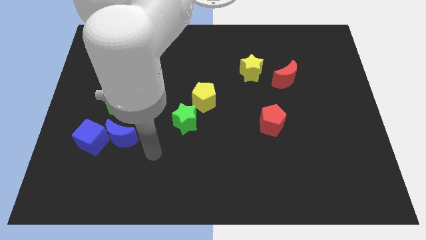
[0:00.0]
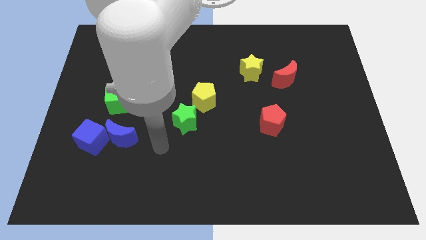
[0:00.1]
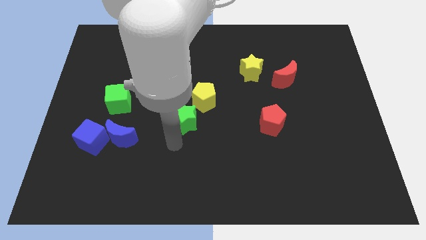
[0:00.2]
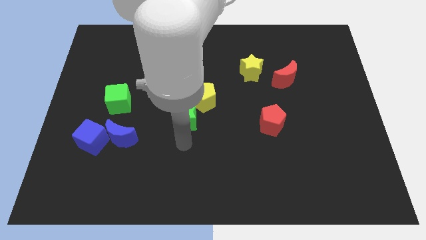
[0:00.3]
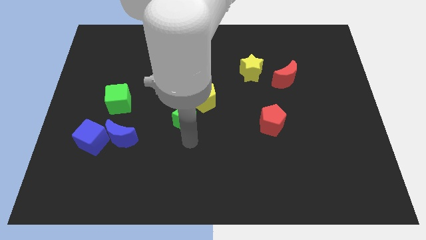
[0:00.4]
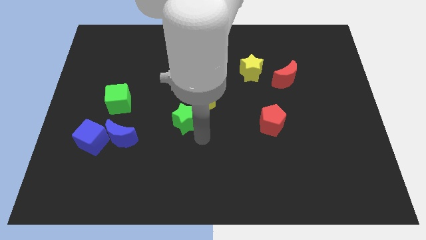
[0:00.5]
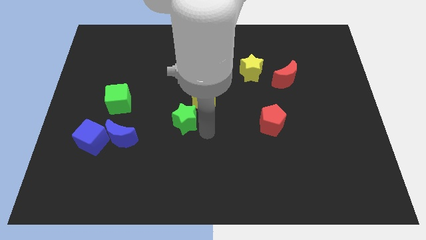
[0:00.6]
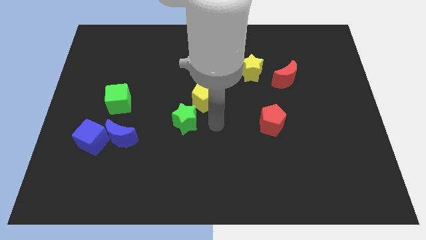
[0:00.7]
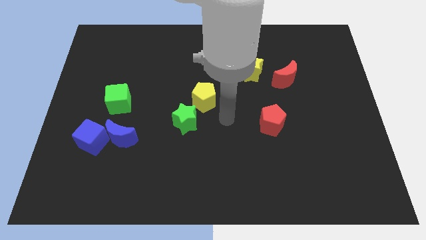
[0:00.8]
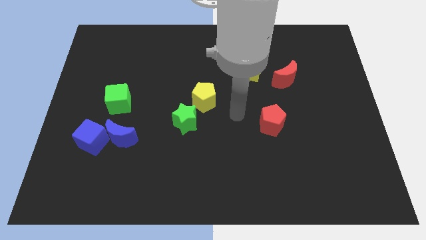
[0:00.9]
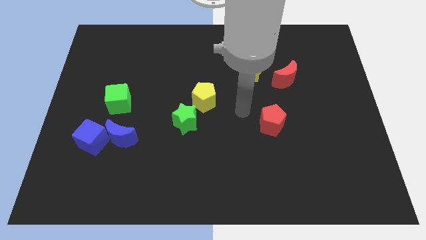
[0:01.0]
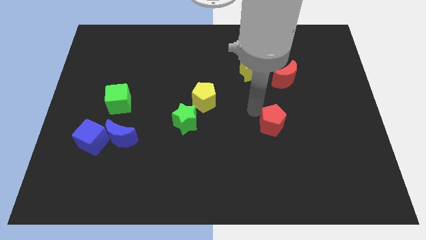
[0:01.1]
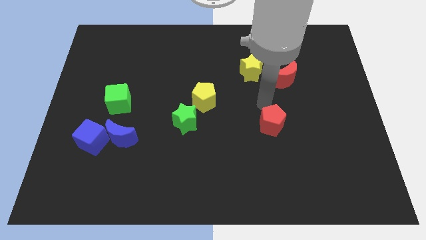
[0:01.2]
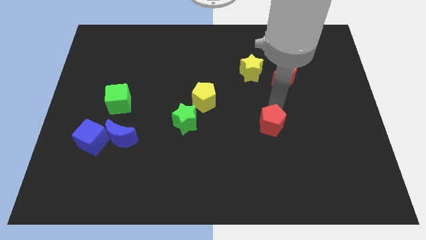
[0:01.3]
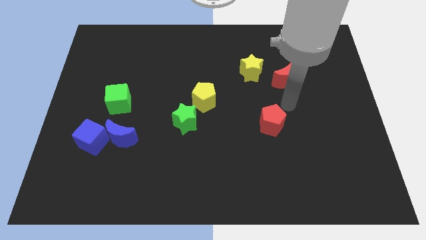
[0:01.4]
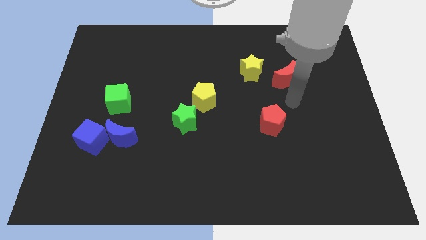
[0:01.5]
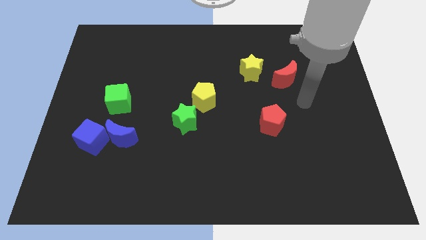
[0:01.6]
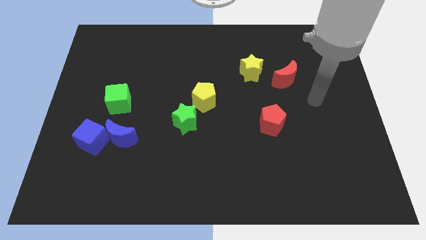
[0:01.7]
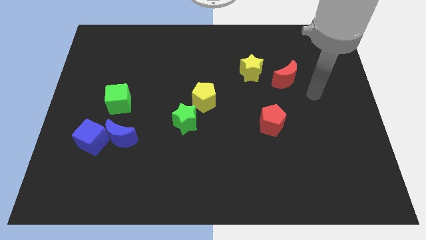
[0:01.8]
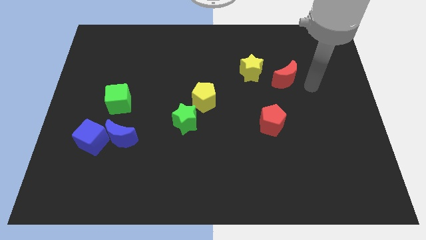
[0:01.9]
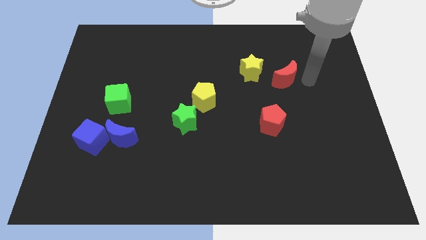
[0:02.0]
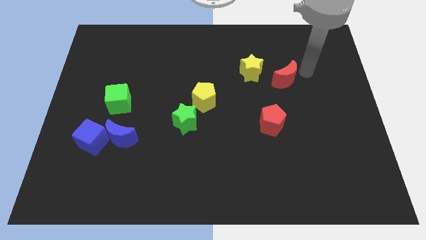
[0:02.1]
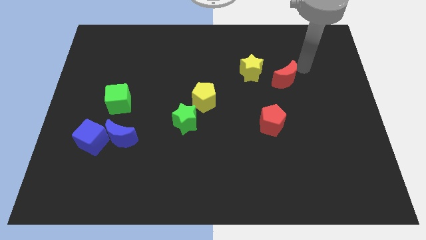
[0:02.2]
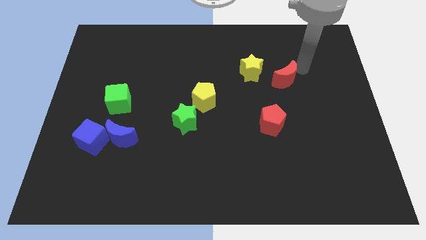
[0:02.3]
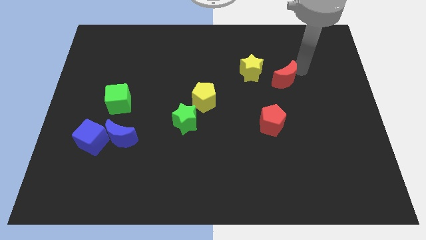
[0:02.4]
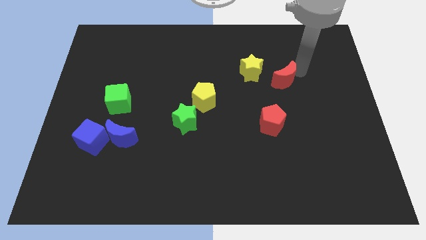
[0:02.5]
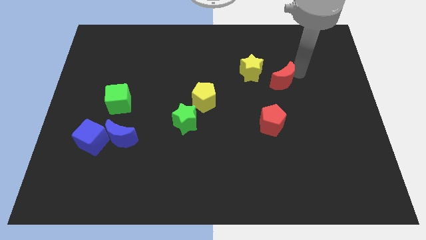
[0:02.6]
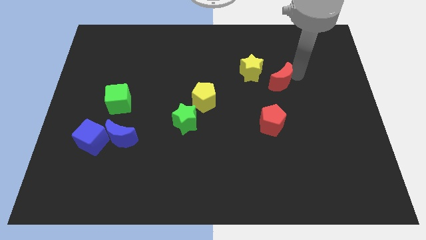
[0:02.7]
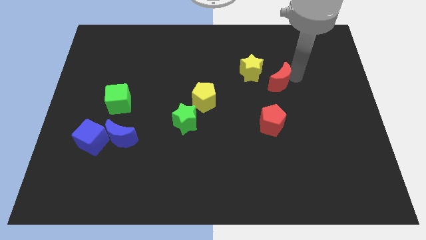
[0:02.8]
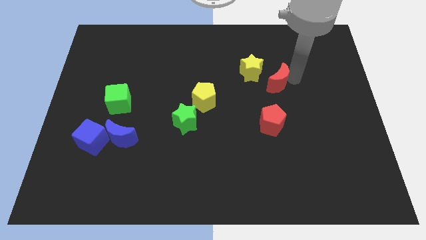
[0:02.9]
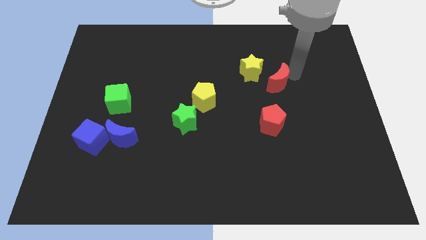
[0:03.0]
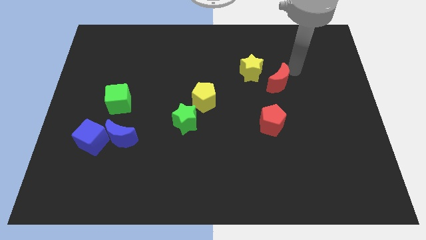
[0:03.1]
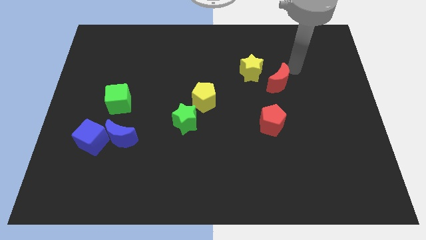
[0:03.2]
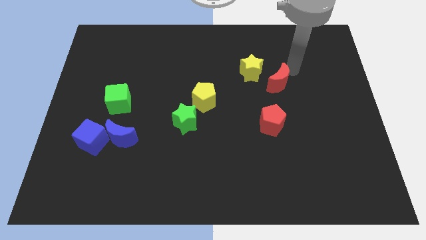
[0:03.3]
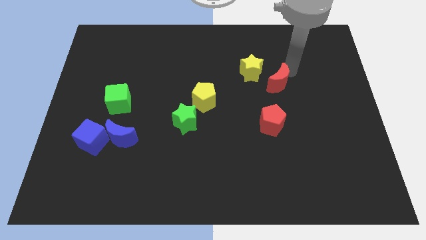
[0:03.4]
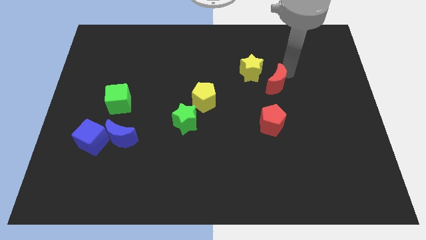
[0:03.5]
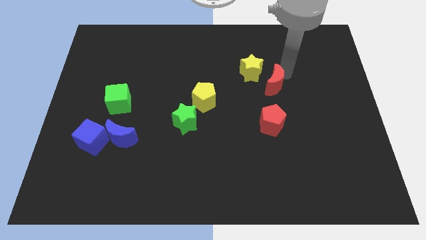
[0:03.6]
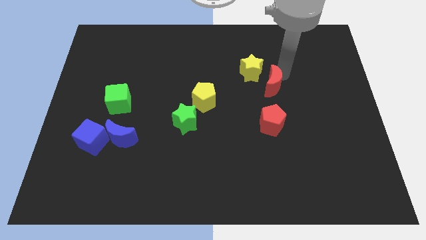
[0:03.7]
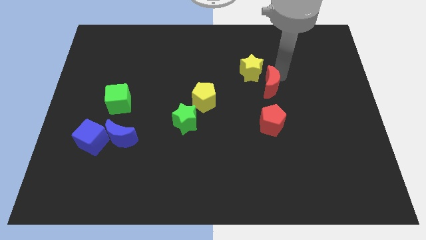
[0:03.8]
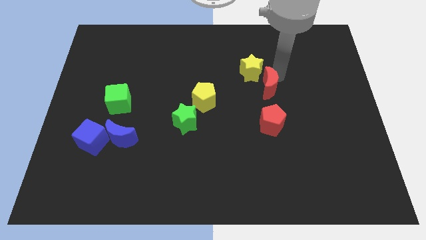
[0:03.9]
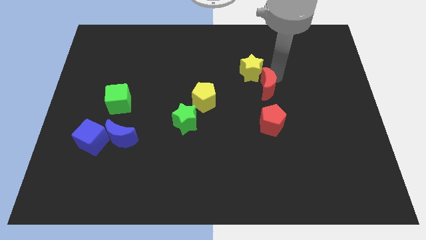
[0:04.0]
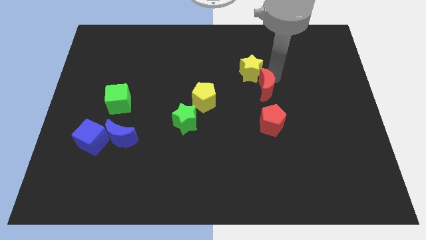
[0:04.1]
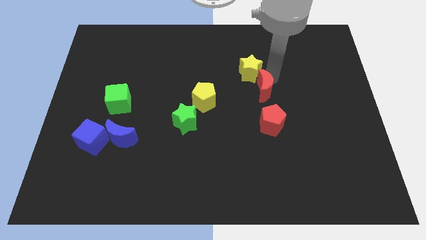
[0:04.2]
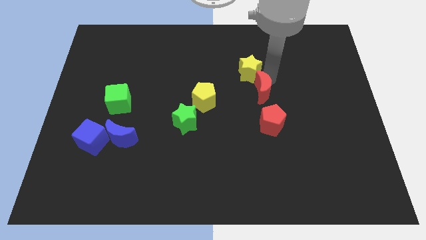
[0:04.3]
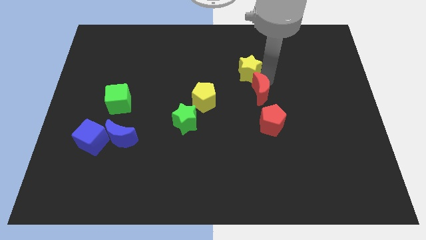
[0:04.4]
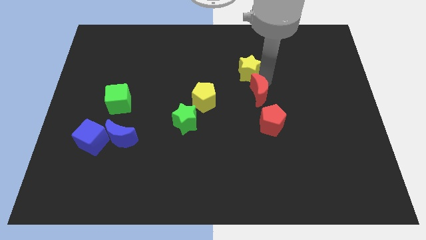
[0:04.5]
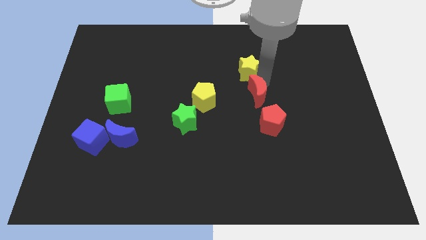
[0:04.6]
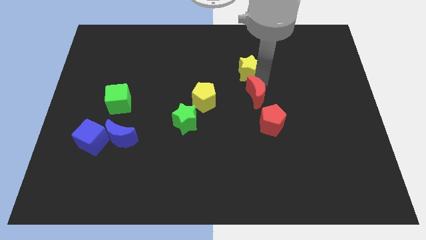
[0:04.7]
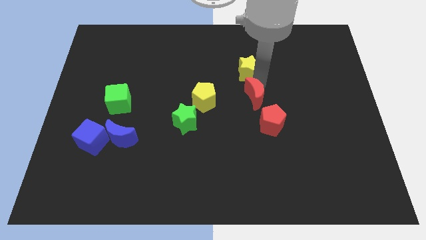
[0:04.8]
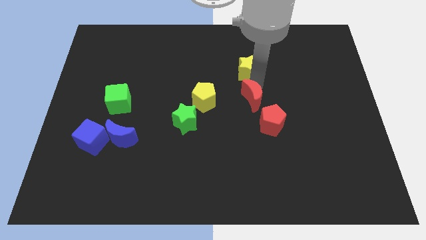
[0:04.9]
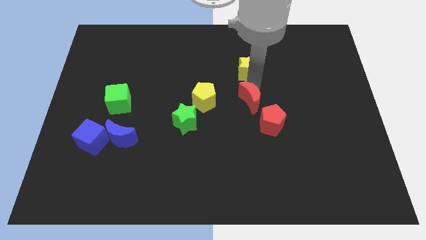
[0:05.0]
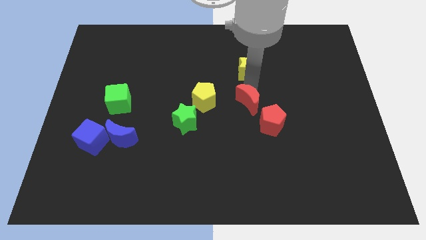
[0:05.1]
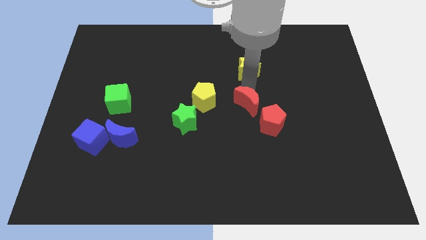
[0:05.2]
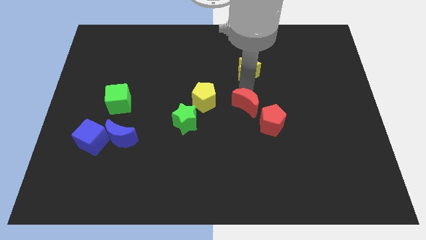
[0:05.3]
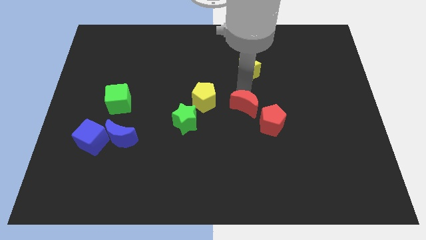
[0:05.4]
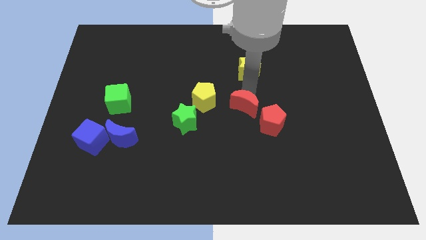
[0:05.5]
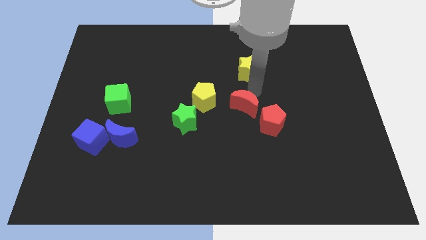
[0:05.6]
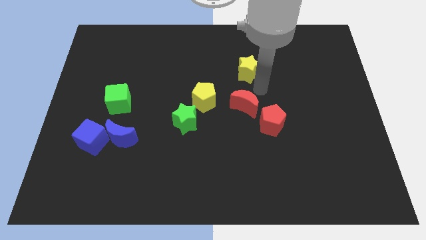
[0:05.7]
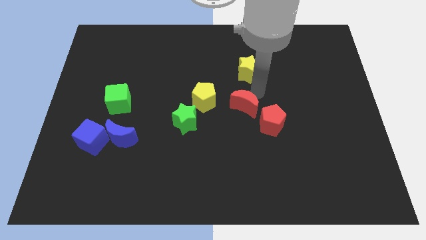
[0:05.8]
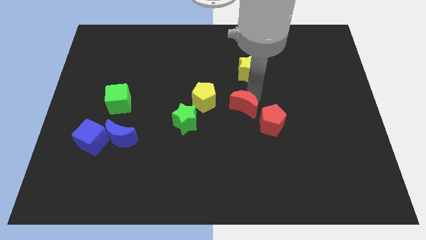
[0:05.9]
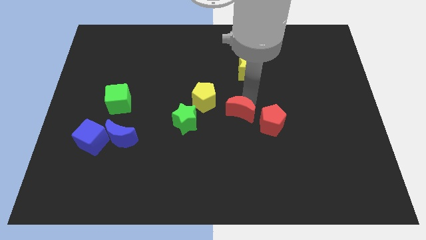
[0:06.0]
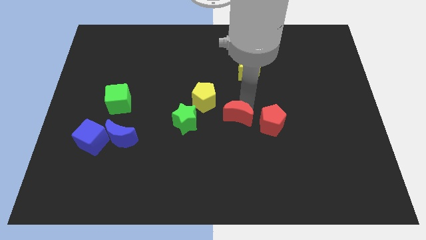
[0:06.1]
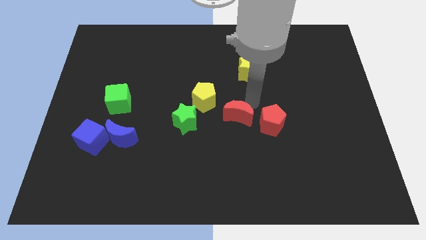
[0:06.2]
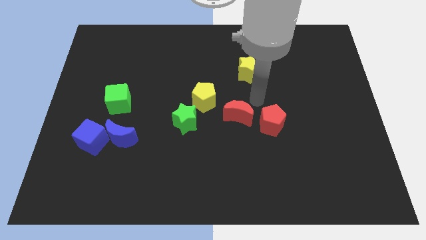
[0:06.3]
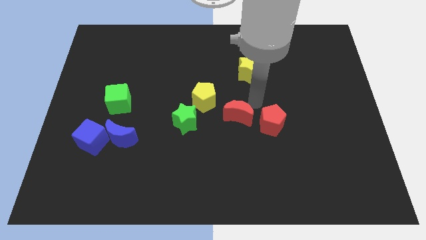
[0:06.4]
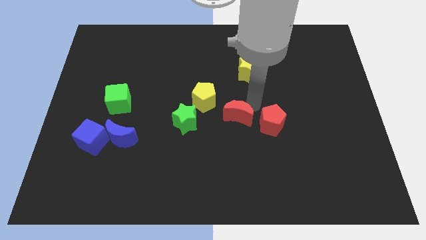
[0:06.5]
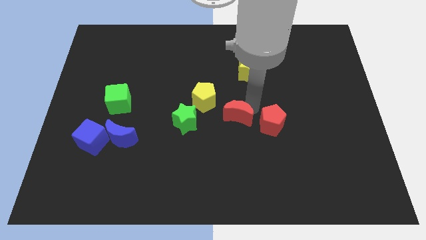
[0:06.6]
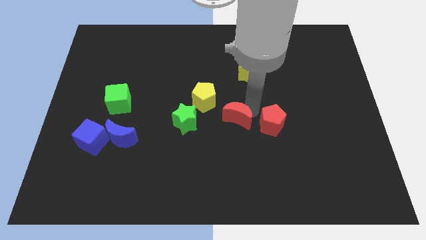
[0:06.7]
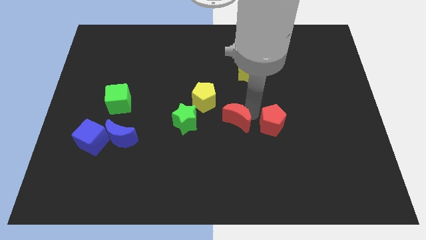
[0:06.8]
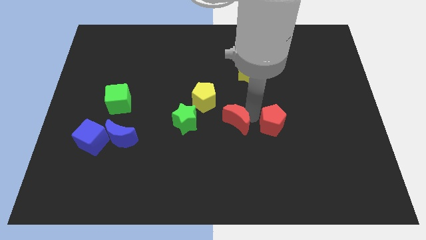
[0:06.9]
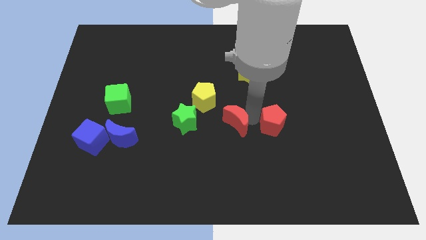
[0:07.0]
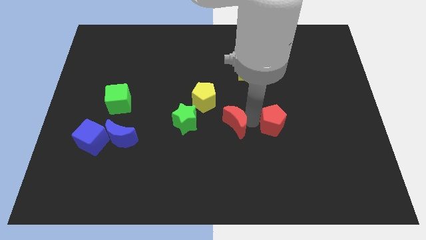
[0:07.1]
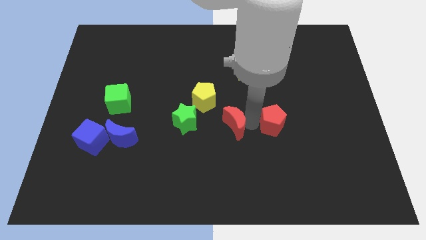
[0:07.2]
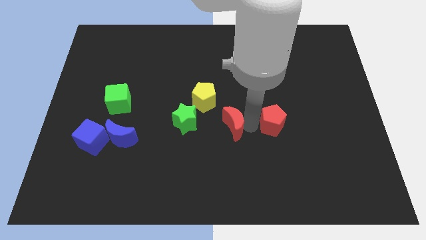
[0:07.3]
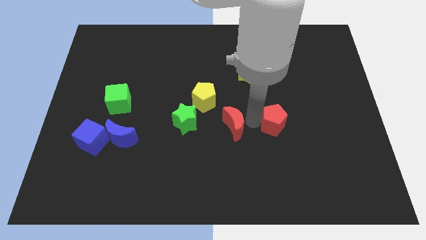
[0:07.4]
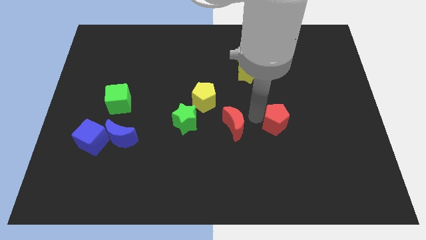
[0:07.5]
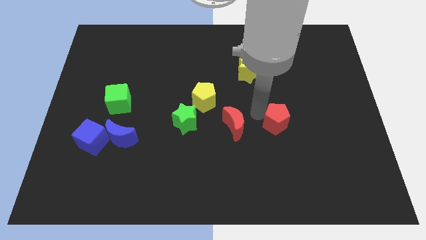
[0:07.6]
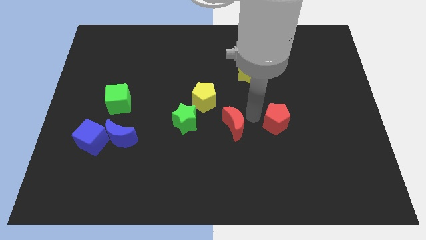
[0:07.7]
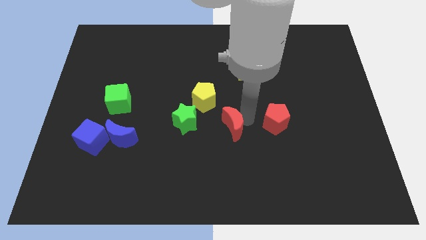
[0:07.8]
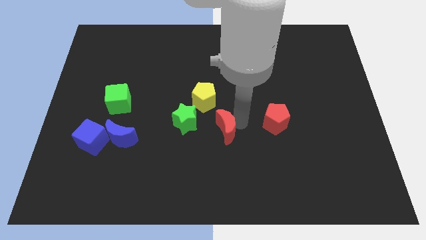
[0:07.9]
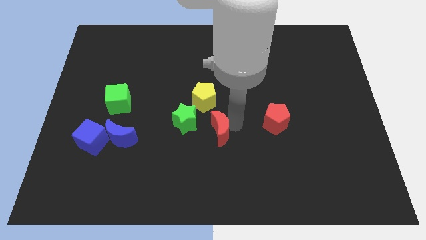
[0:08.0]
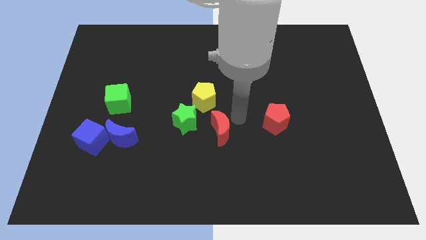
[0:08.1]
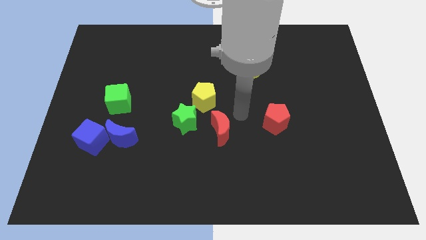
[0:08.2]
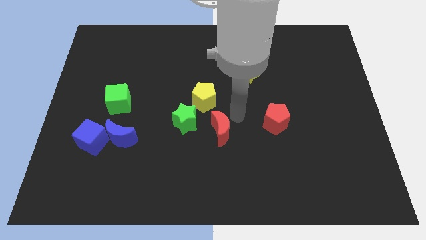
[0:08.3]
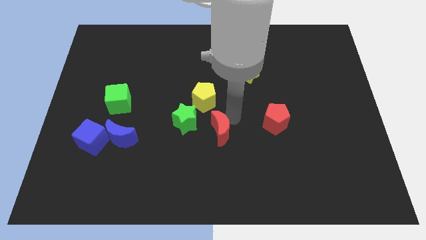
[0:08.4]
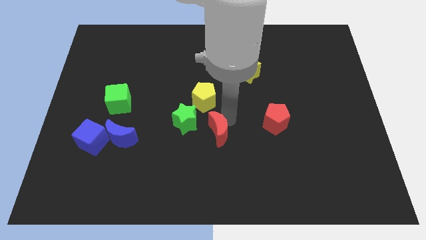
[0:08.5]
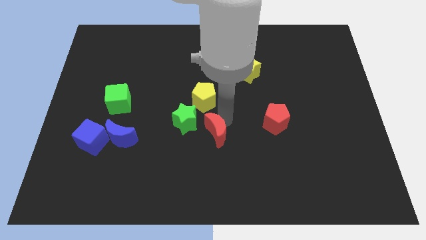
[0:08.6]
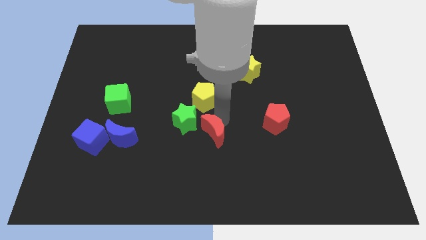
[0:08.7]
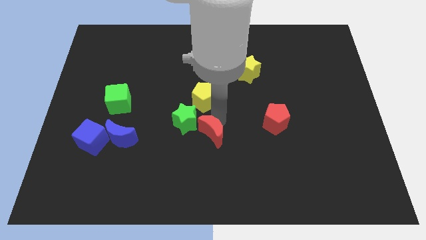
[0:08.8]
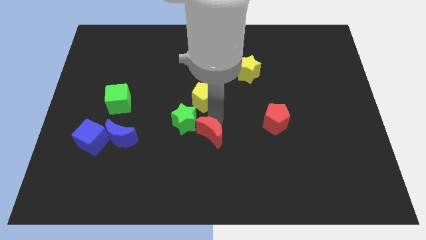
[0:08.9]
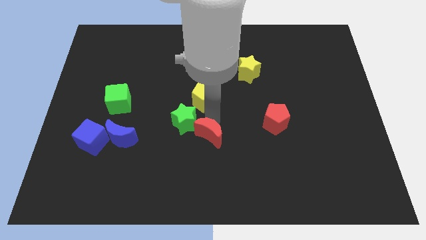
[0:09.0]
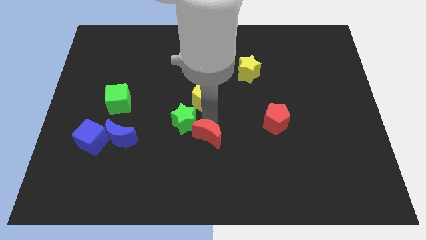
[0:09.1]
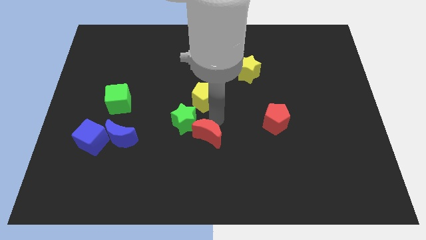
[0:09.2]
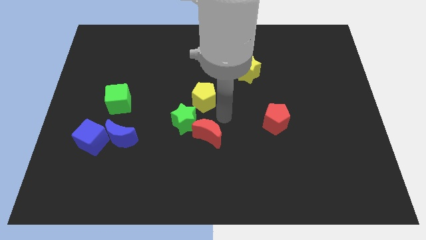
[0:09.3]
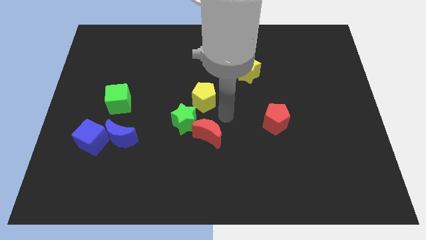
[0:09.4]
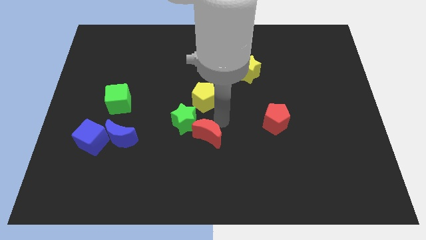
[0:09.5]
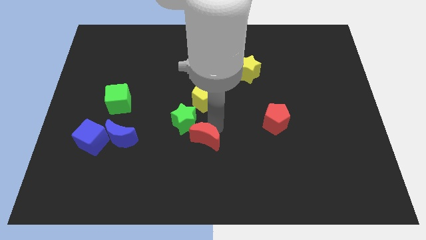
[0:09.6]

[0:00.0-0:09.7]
push the red moon to the bottom of the green star
